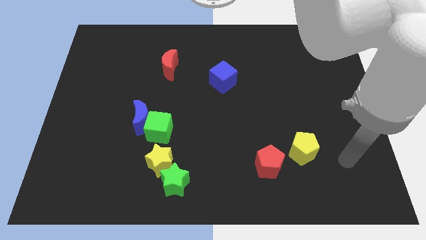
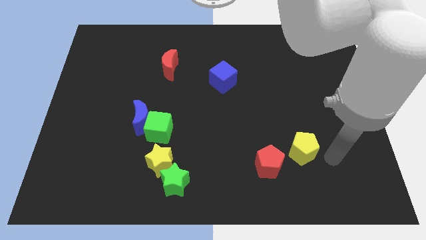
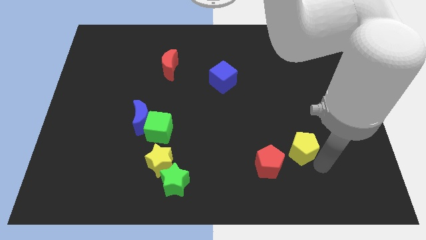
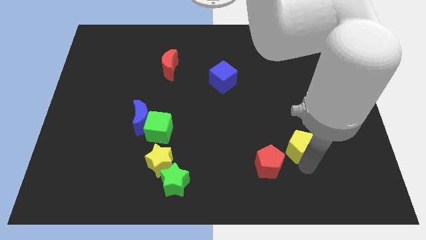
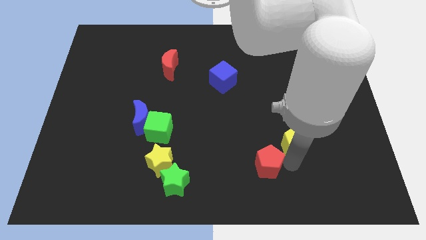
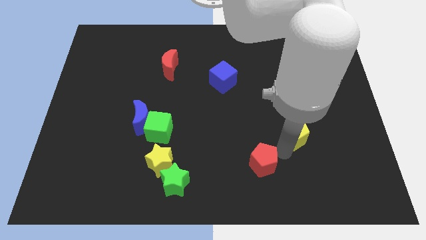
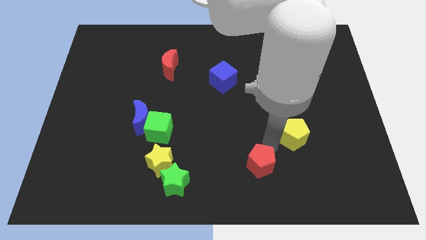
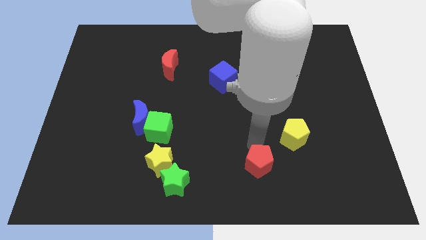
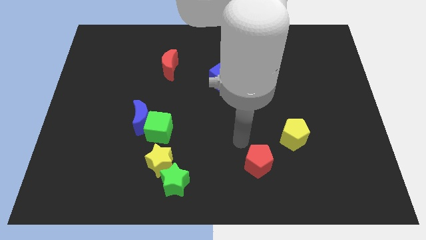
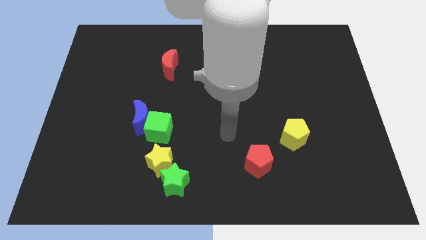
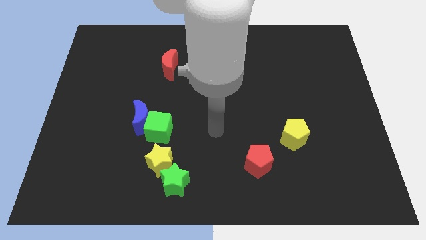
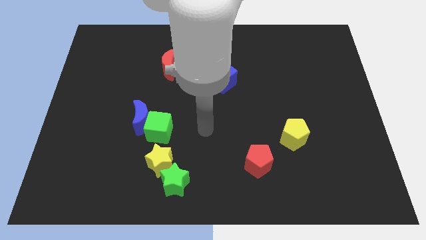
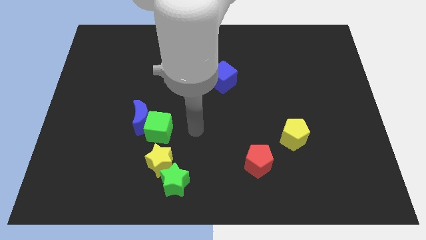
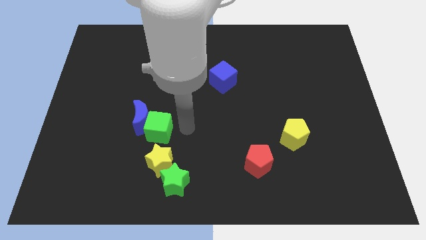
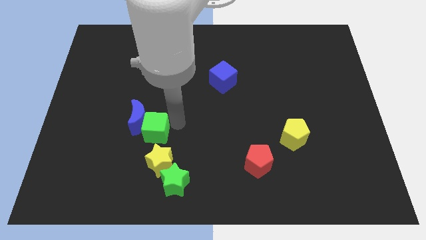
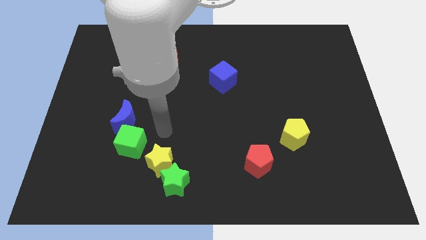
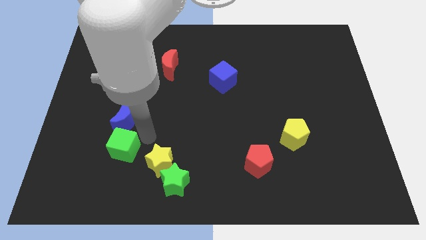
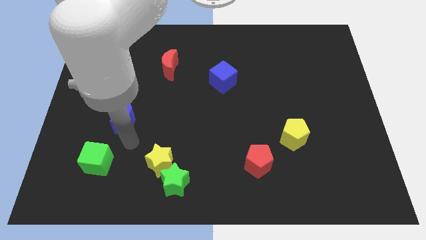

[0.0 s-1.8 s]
pull the blue moon apart from the green cube

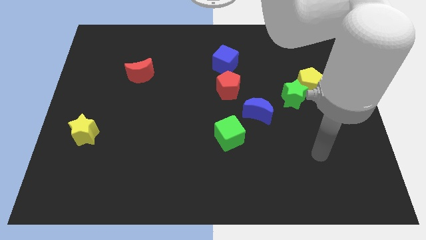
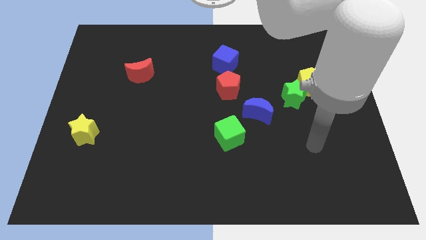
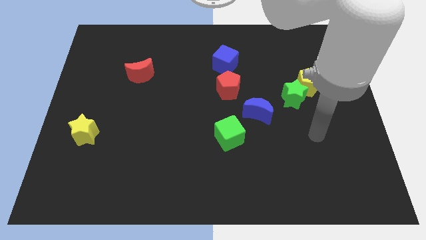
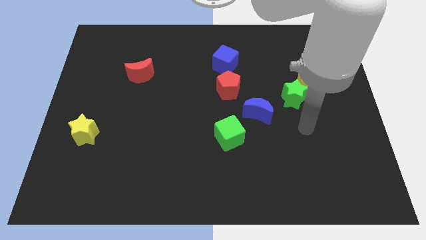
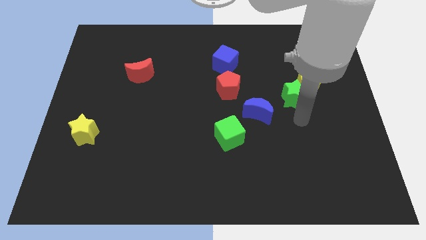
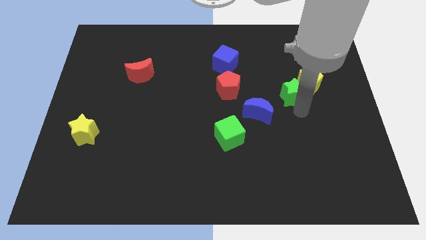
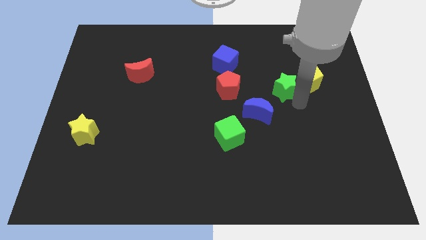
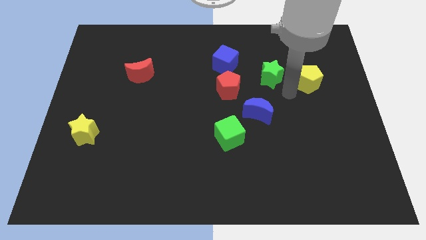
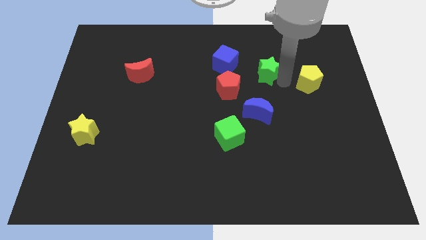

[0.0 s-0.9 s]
pull the yellow pentagon apart from the green star

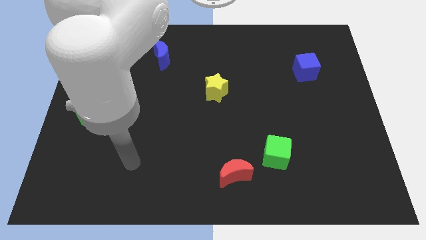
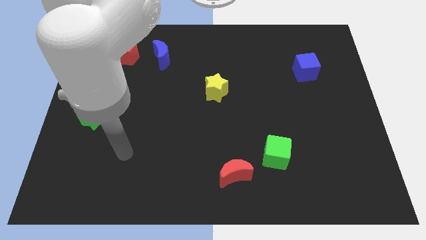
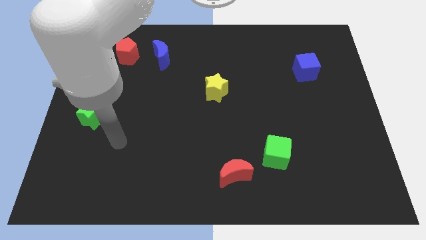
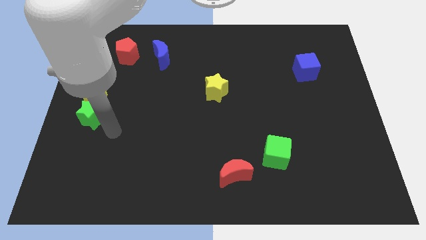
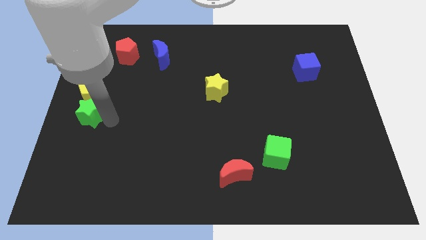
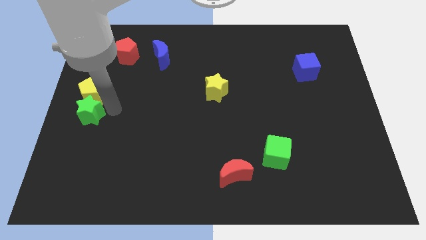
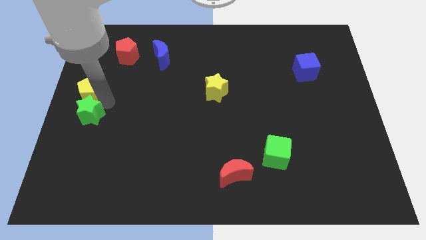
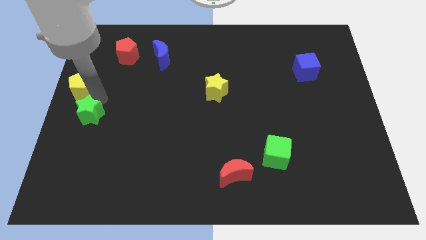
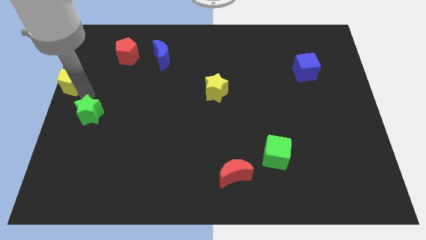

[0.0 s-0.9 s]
pull the green star apart from the yellow pentagon

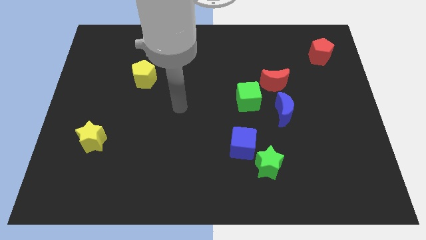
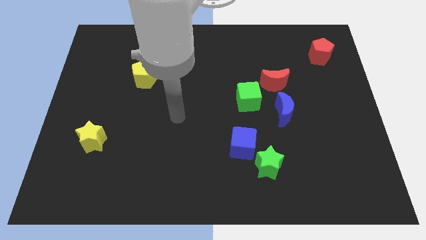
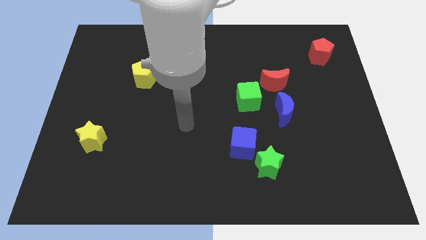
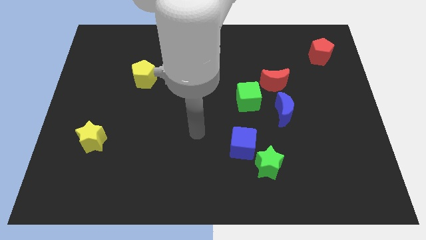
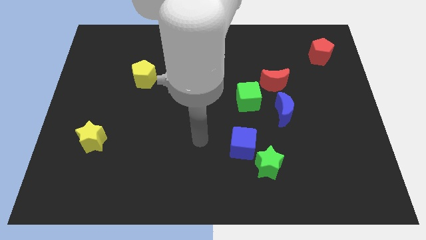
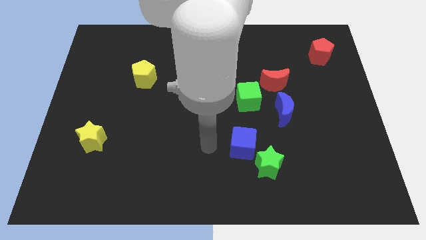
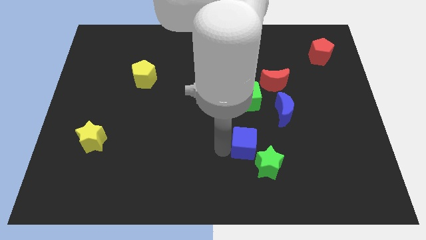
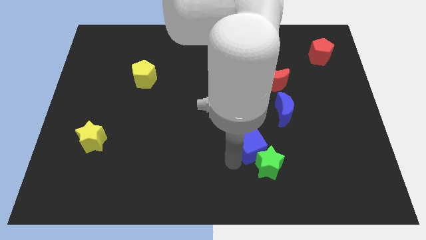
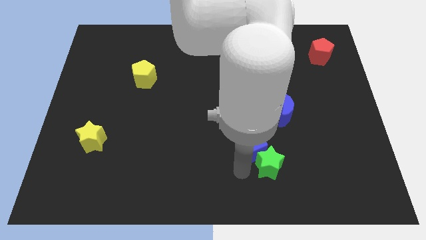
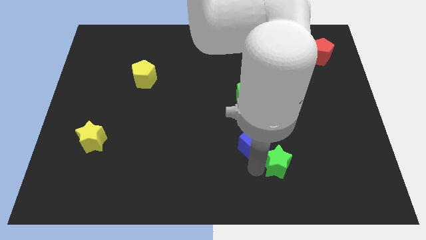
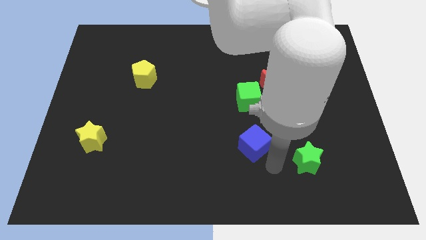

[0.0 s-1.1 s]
move the blue cube away from the green star

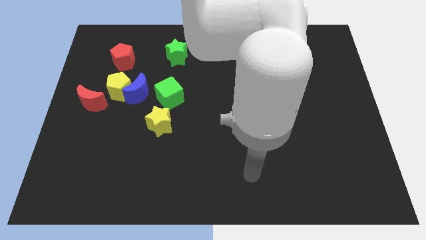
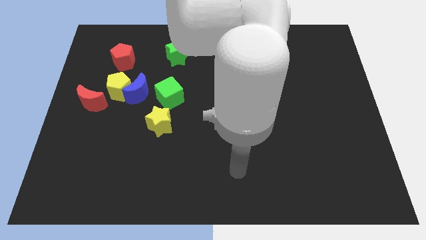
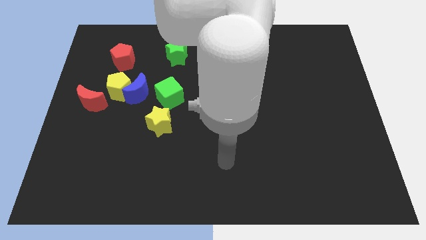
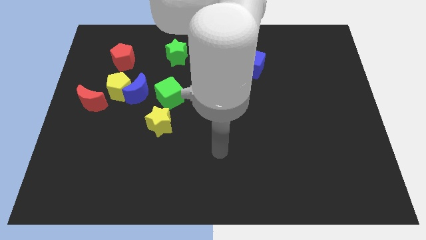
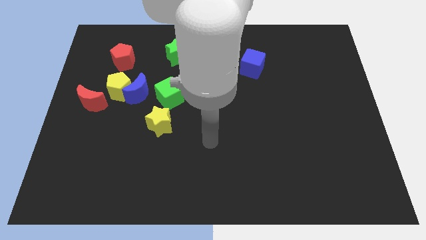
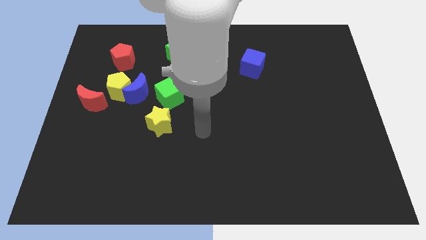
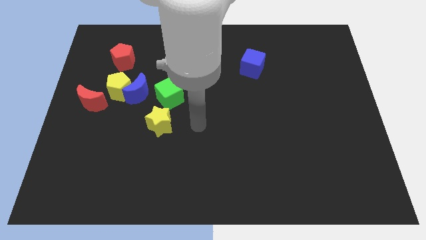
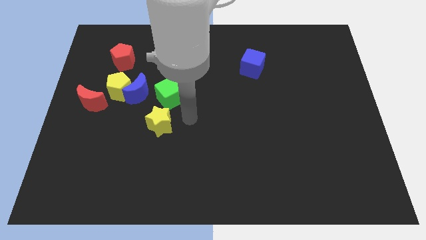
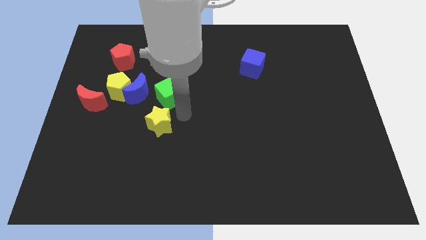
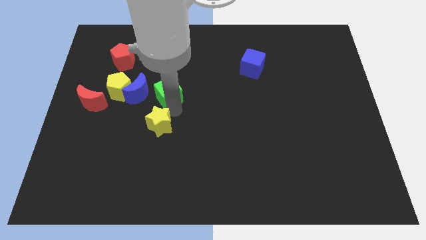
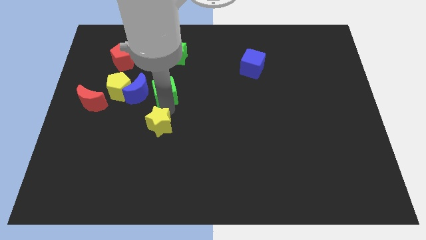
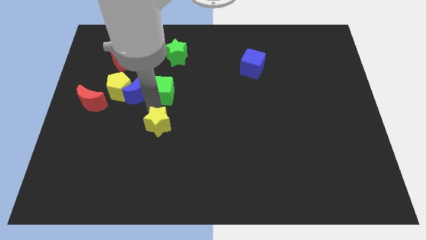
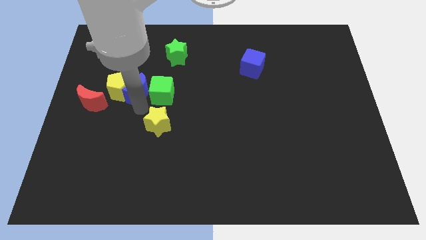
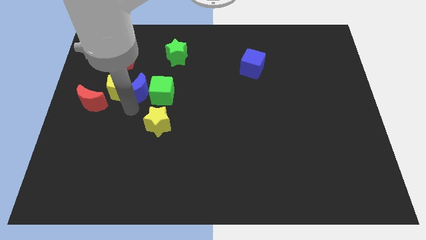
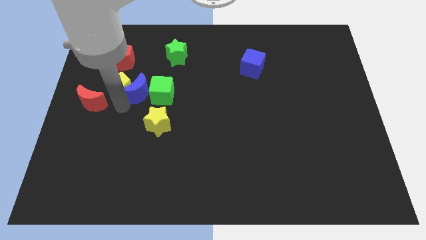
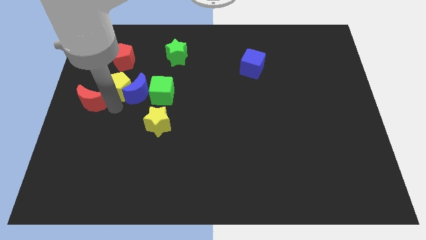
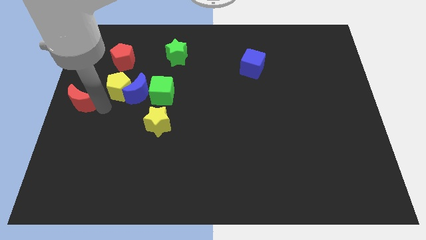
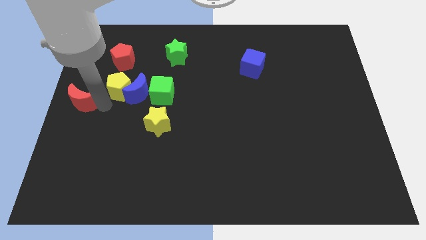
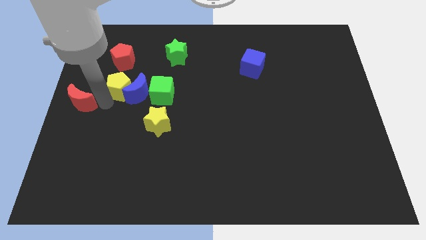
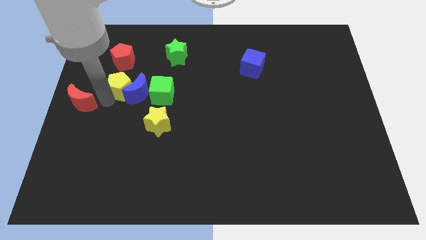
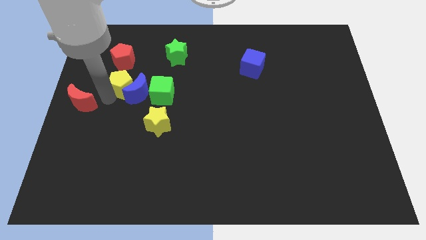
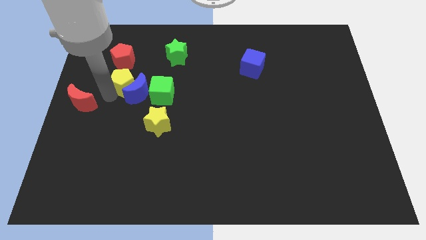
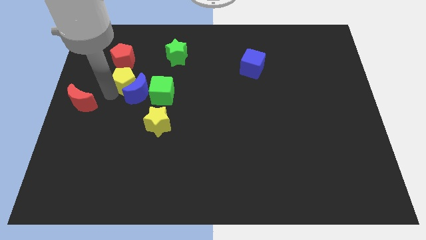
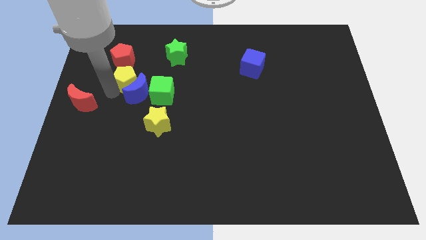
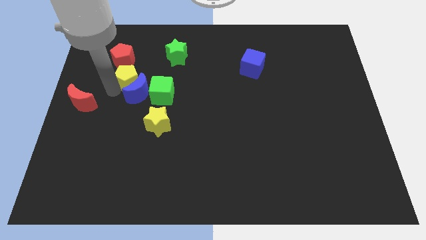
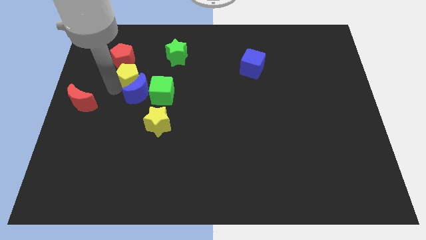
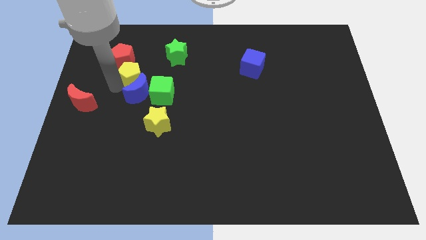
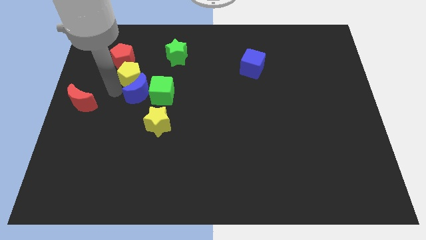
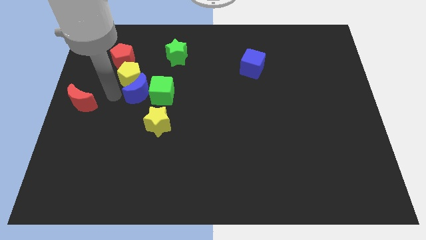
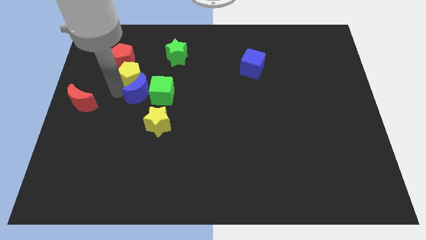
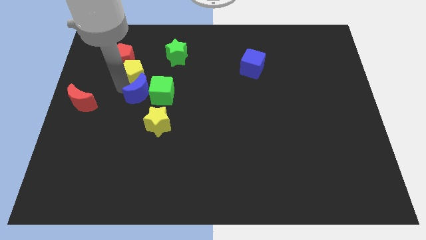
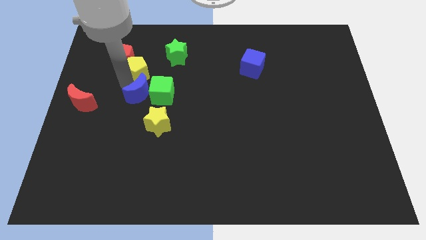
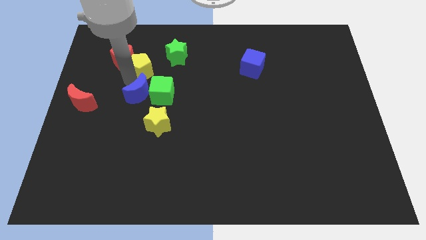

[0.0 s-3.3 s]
pull the yellow pentagon apart from the blue moon and red moon

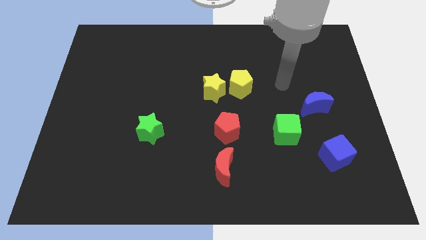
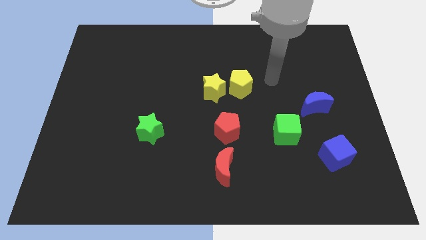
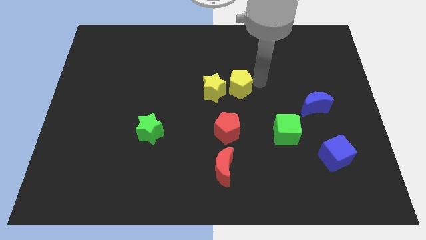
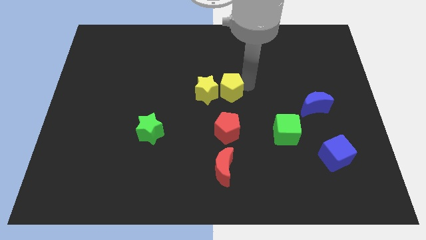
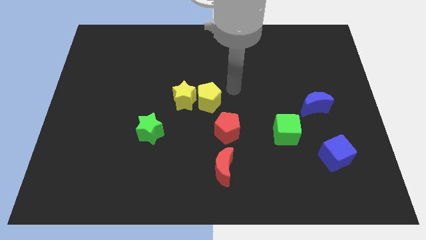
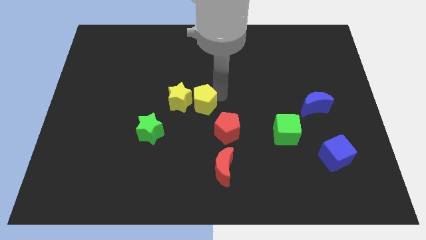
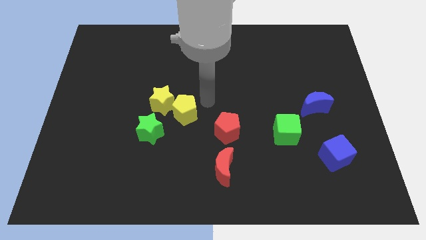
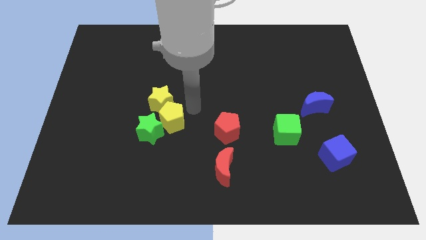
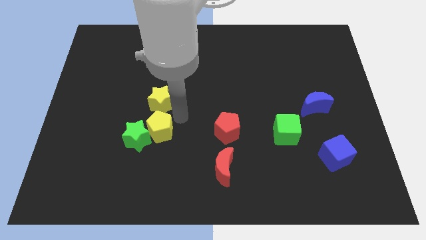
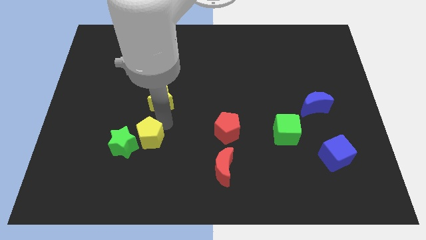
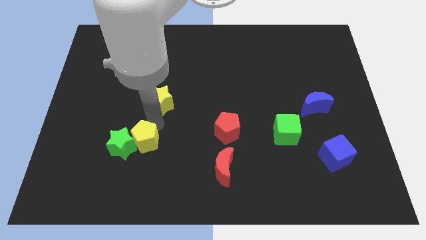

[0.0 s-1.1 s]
separate the yellow star from the yellow pentagon

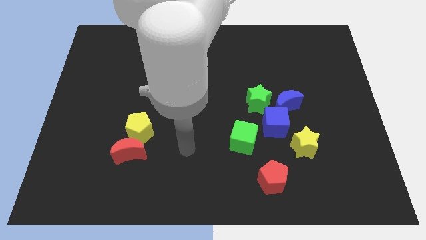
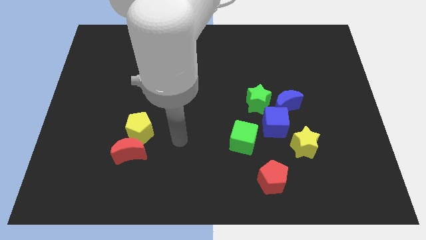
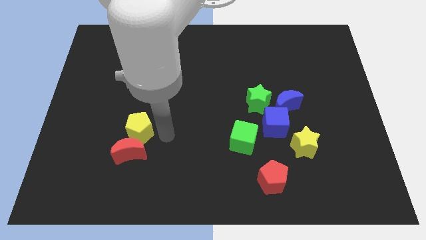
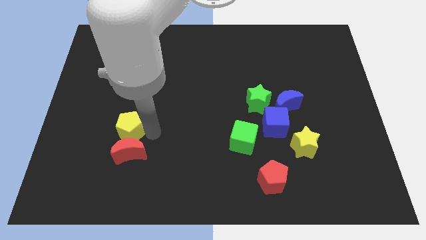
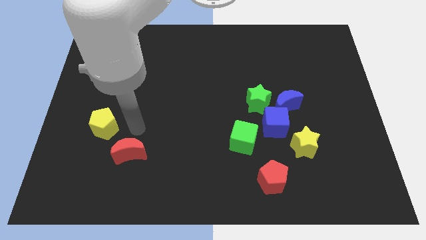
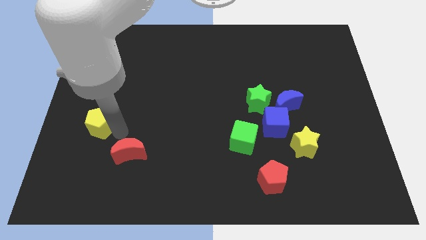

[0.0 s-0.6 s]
move the red moon away from the yellow pentagon
